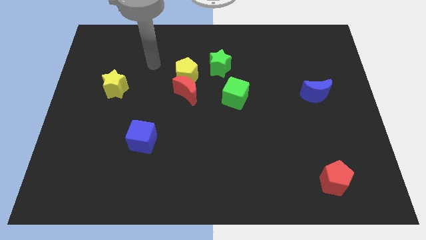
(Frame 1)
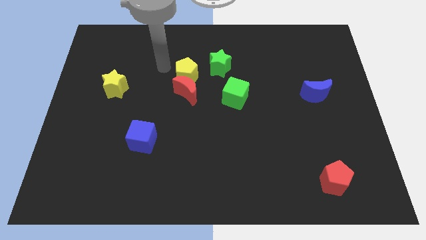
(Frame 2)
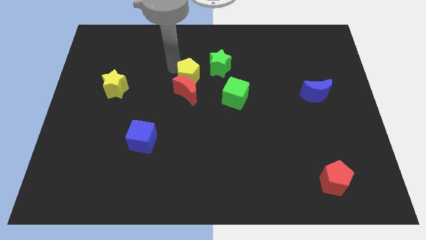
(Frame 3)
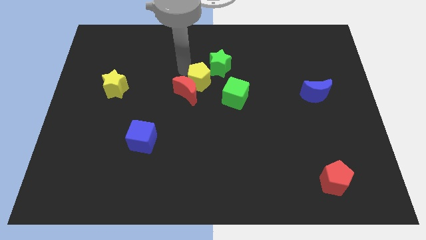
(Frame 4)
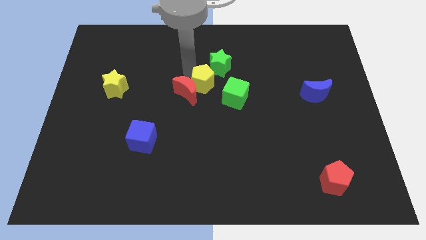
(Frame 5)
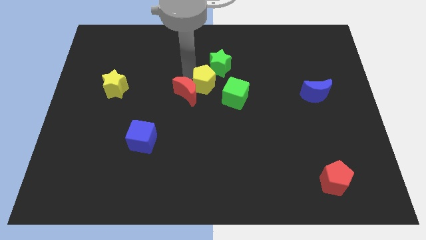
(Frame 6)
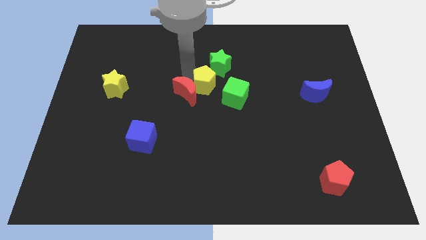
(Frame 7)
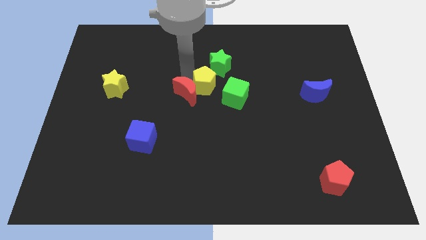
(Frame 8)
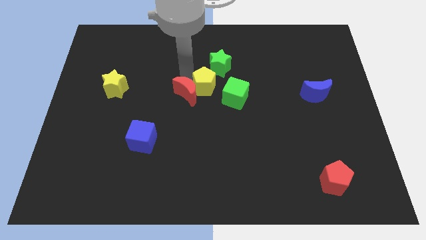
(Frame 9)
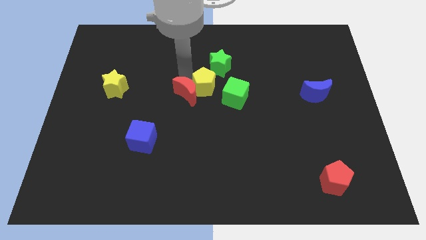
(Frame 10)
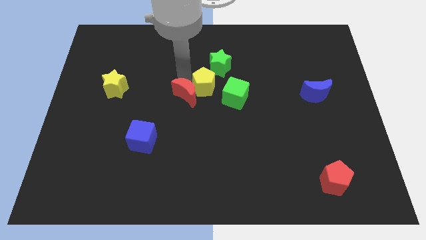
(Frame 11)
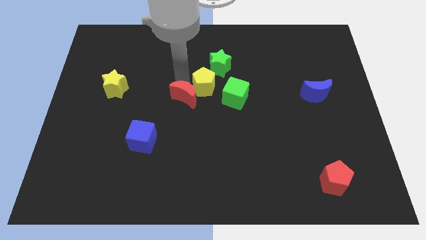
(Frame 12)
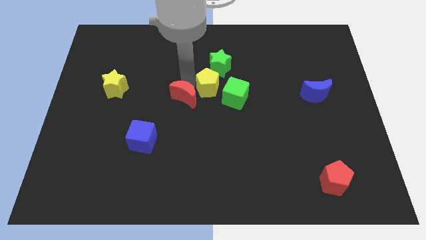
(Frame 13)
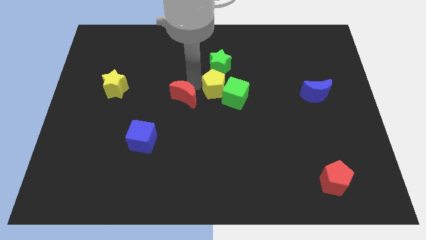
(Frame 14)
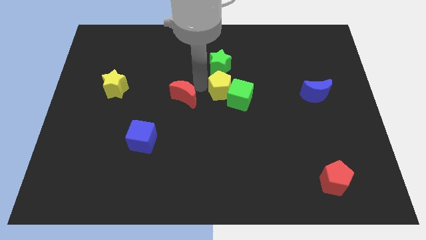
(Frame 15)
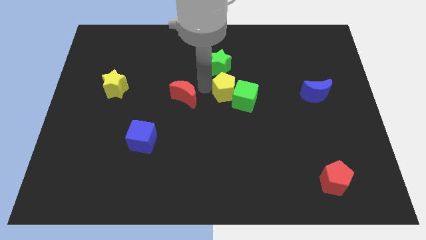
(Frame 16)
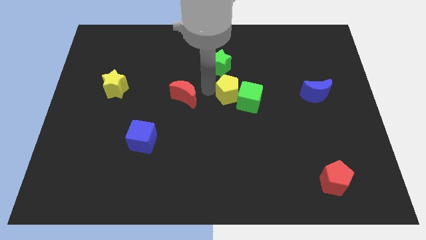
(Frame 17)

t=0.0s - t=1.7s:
pull the red moon apart from the yellow pentagon

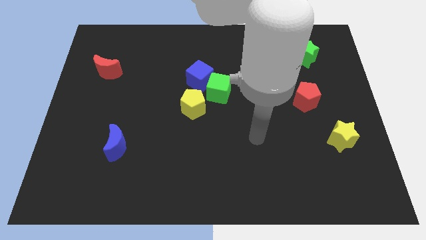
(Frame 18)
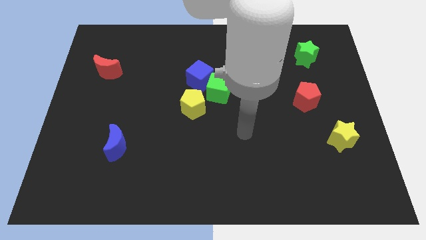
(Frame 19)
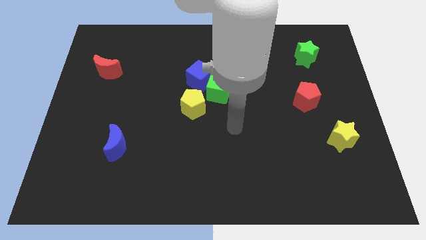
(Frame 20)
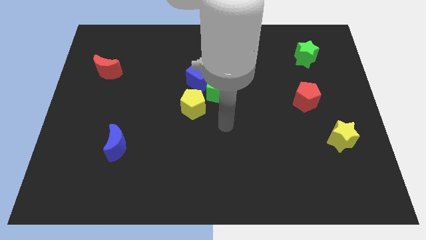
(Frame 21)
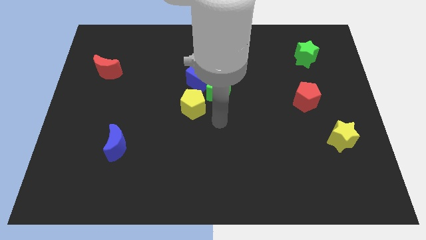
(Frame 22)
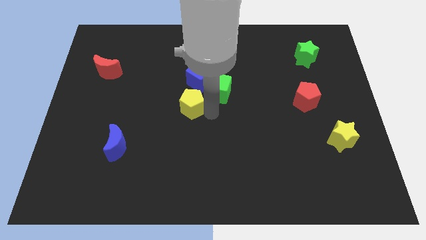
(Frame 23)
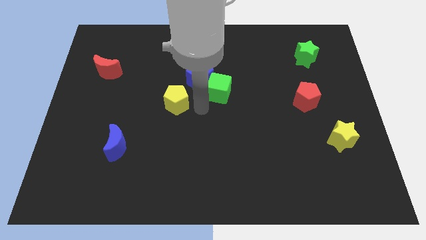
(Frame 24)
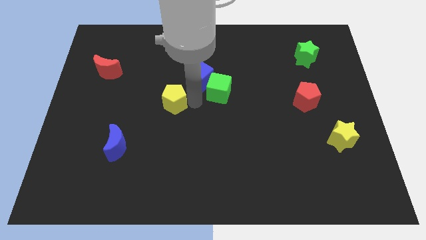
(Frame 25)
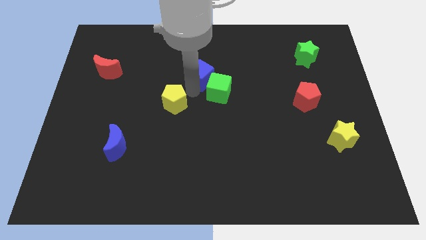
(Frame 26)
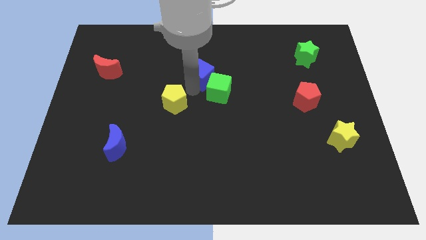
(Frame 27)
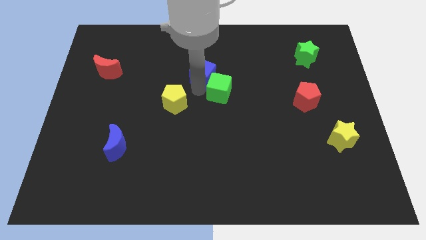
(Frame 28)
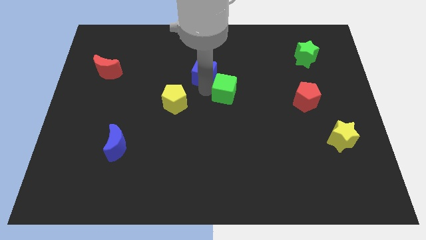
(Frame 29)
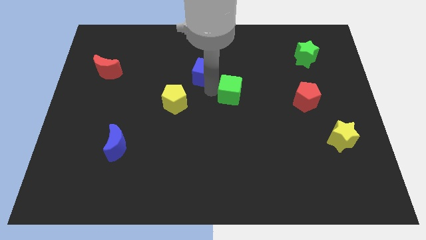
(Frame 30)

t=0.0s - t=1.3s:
pull the green cube apart from the blue cube and yellow pentagon

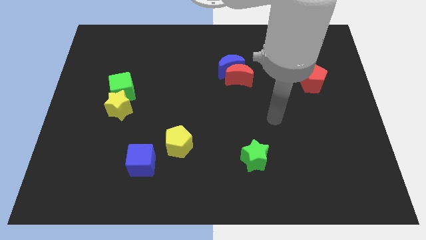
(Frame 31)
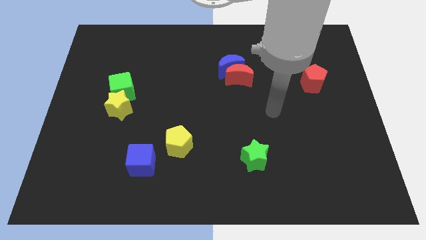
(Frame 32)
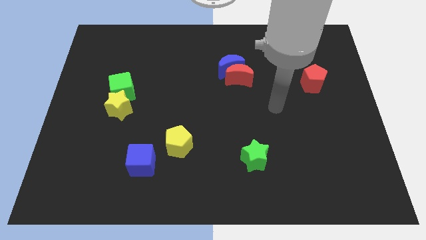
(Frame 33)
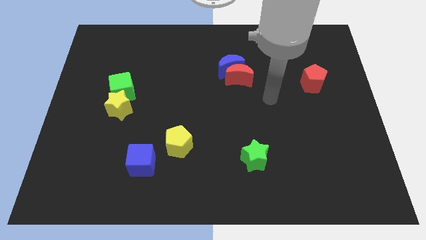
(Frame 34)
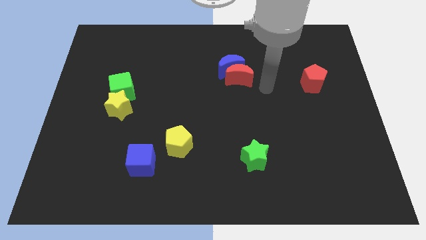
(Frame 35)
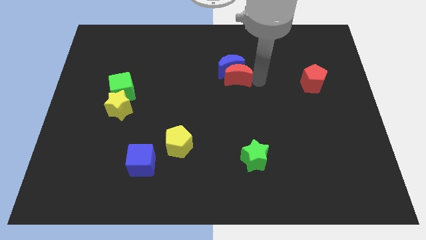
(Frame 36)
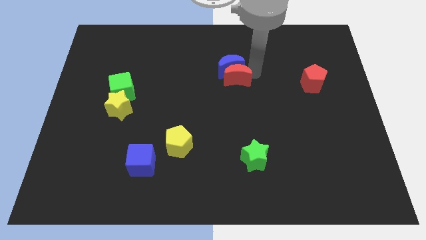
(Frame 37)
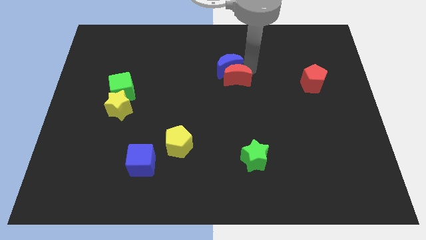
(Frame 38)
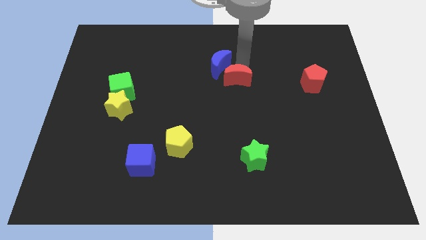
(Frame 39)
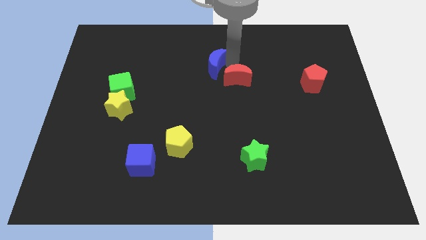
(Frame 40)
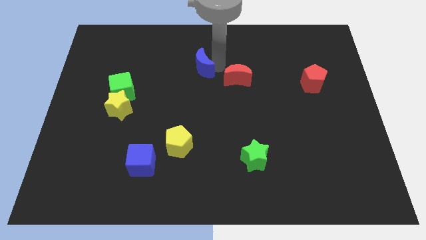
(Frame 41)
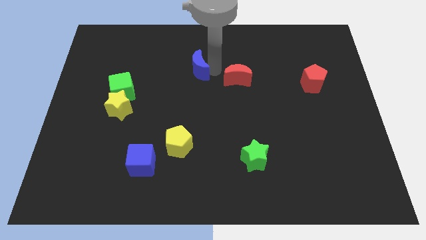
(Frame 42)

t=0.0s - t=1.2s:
separate the red moon from the blue moon

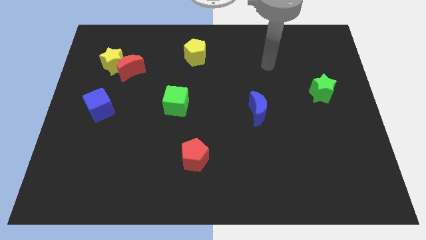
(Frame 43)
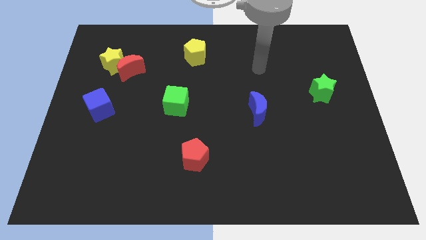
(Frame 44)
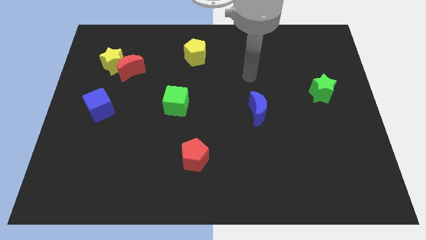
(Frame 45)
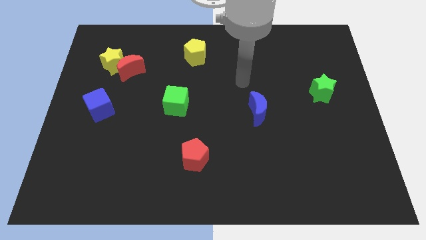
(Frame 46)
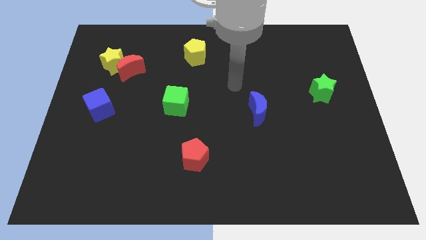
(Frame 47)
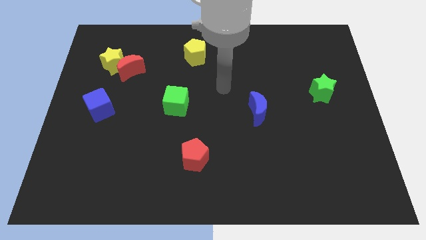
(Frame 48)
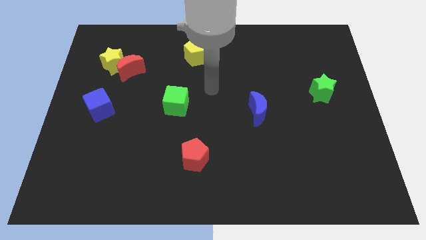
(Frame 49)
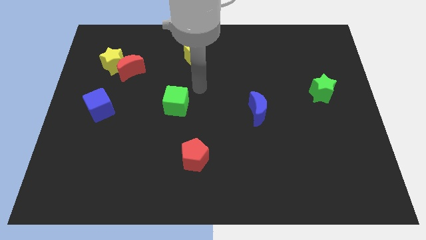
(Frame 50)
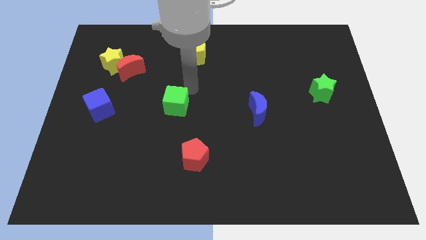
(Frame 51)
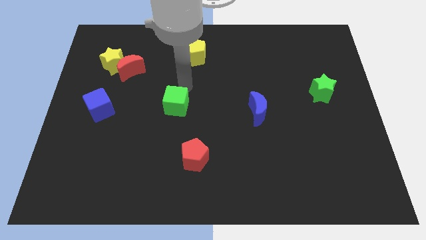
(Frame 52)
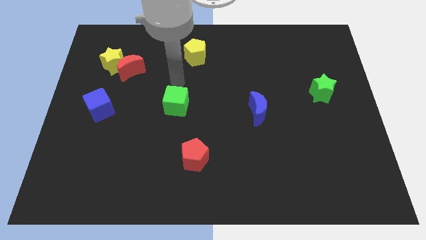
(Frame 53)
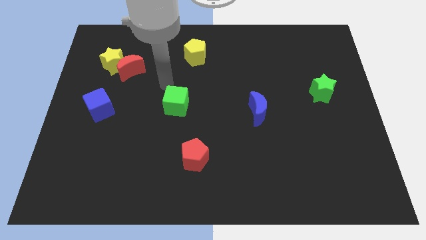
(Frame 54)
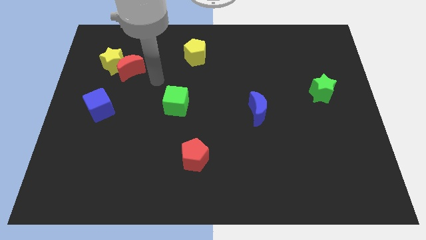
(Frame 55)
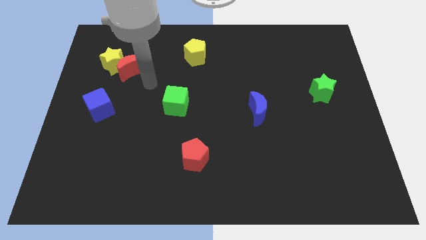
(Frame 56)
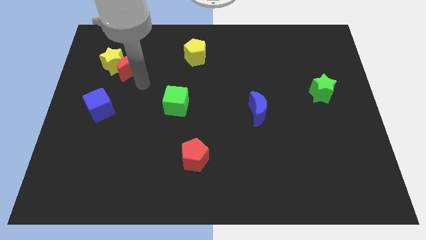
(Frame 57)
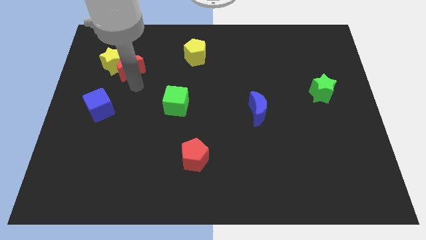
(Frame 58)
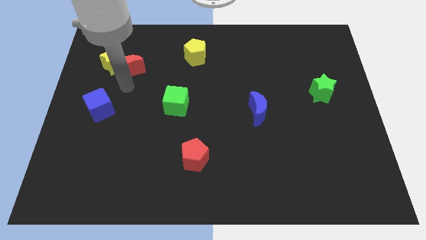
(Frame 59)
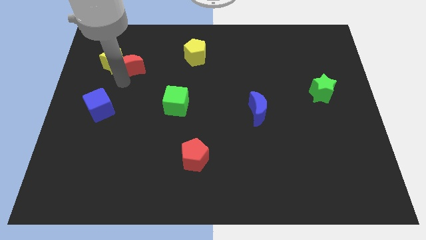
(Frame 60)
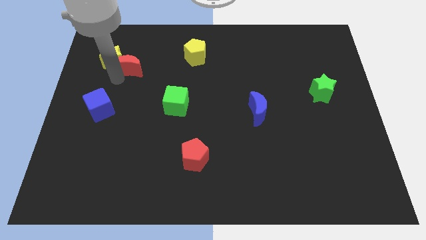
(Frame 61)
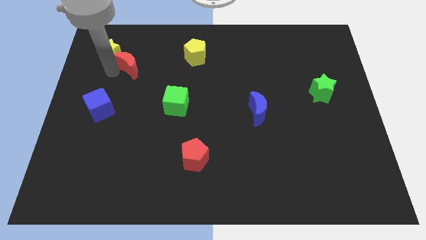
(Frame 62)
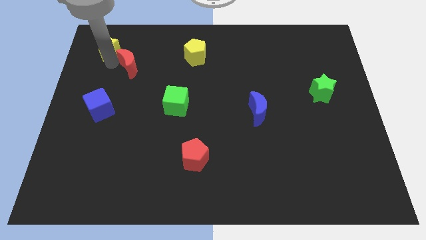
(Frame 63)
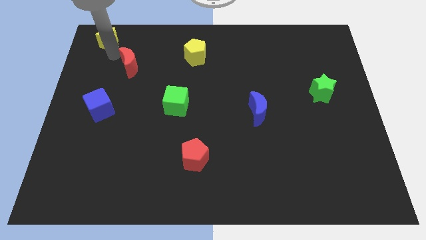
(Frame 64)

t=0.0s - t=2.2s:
pull the red moon apart from the yellow star

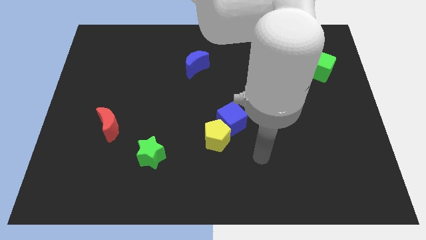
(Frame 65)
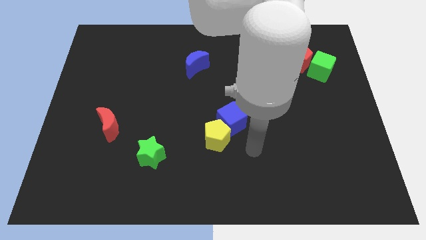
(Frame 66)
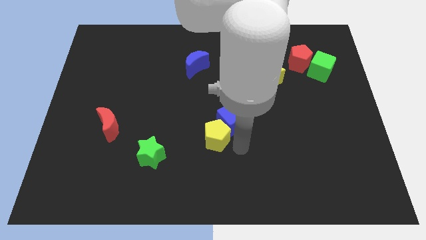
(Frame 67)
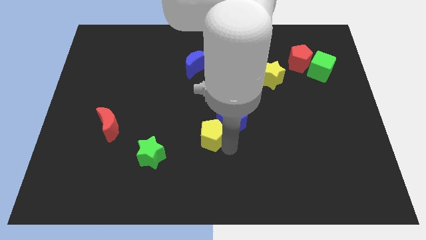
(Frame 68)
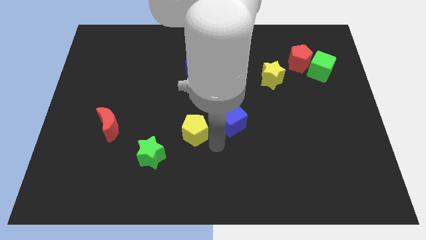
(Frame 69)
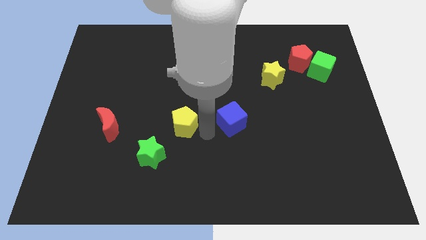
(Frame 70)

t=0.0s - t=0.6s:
move the blue cube away from the yellow pentagon

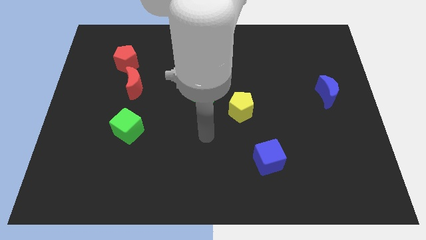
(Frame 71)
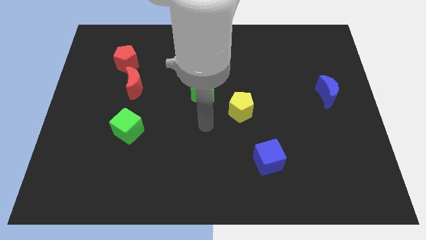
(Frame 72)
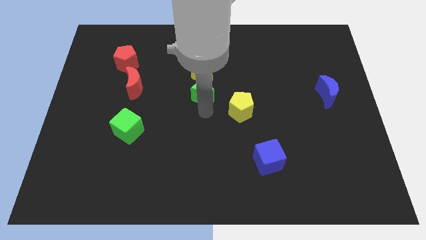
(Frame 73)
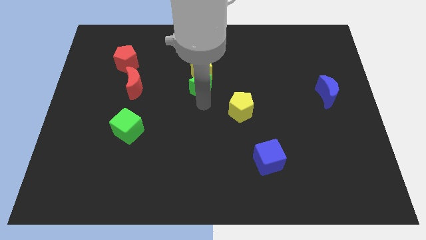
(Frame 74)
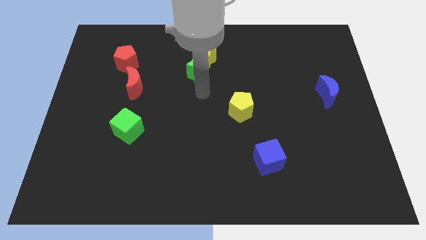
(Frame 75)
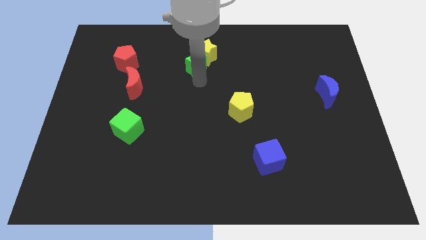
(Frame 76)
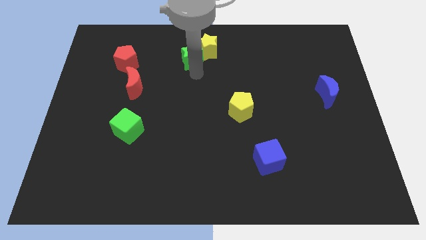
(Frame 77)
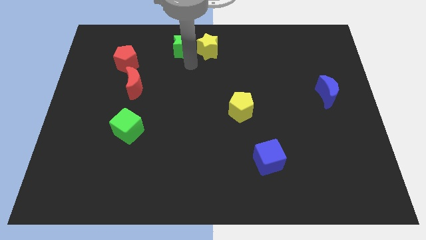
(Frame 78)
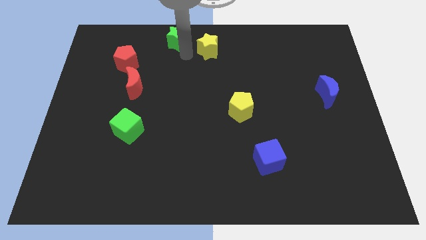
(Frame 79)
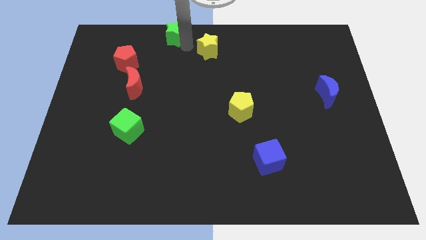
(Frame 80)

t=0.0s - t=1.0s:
move the yellow star away from the green star

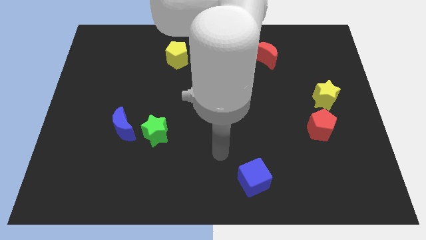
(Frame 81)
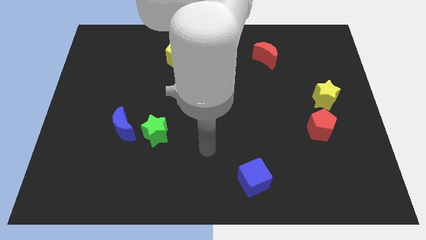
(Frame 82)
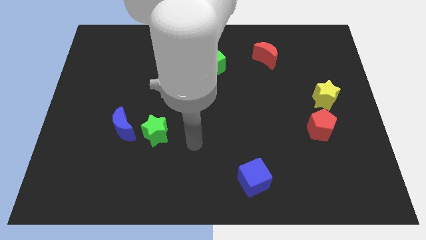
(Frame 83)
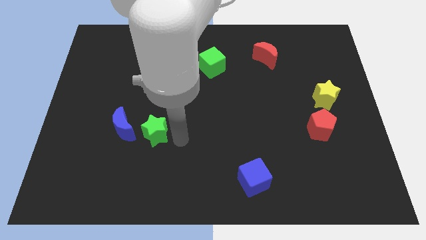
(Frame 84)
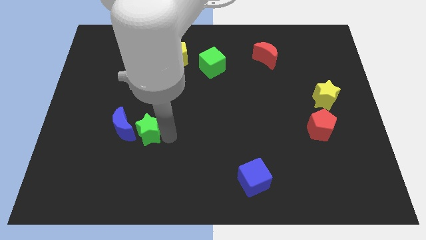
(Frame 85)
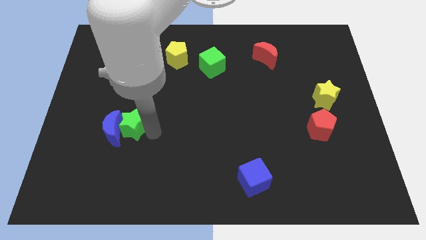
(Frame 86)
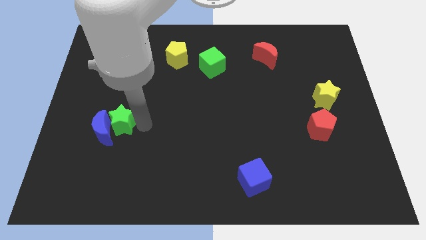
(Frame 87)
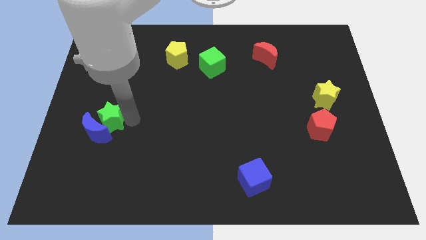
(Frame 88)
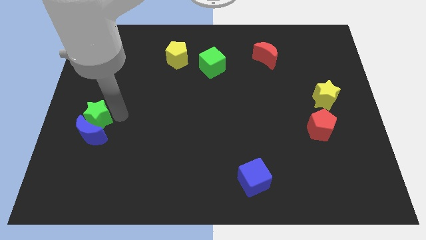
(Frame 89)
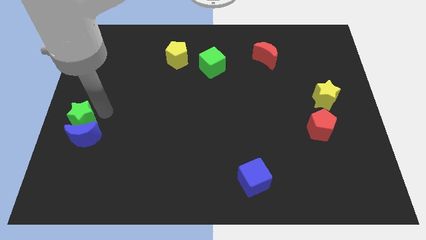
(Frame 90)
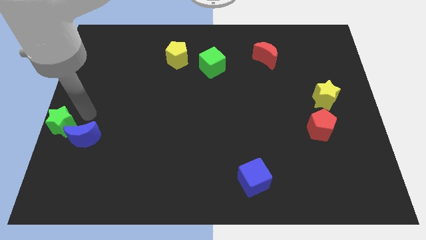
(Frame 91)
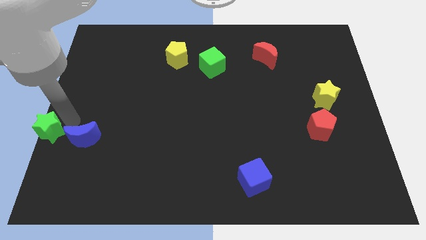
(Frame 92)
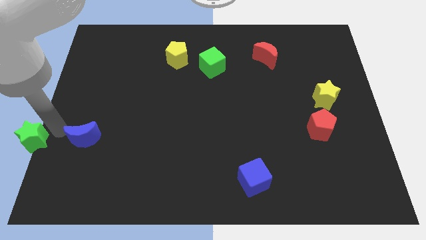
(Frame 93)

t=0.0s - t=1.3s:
pull the blue moon apart from the green star
